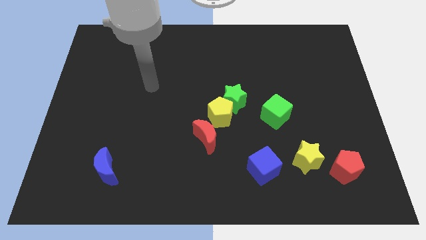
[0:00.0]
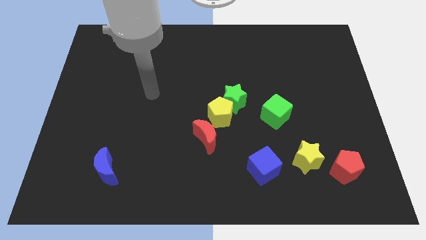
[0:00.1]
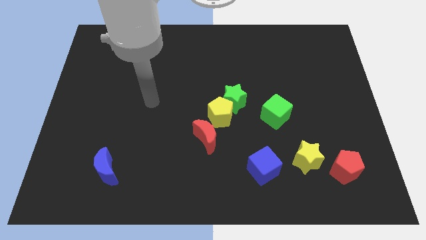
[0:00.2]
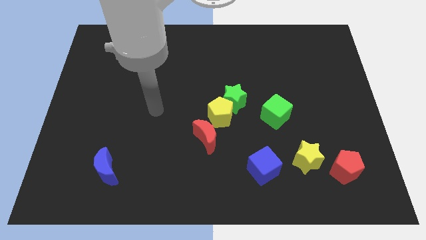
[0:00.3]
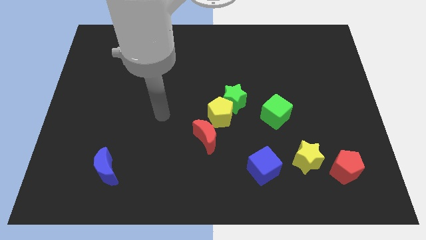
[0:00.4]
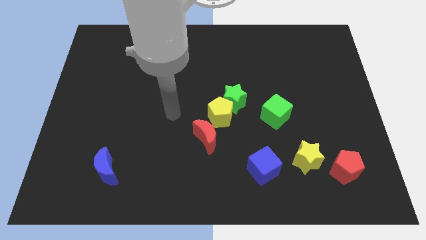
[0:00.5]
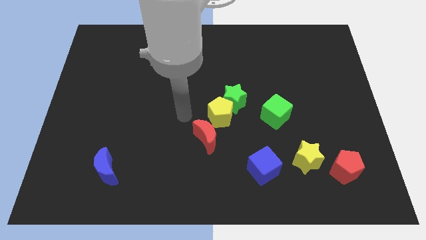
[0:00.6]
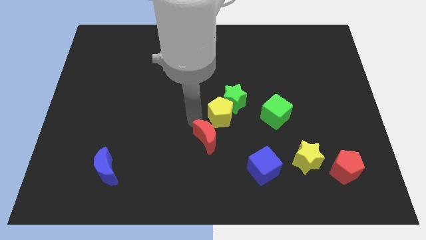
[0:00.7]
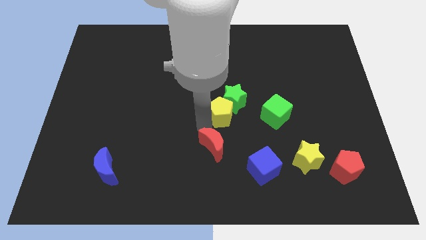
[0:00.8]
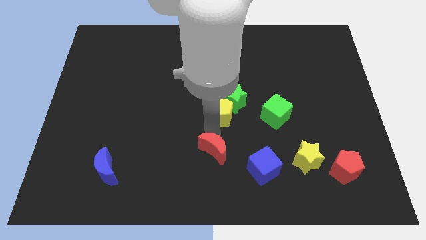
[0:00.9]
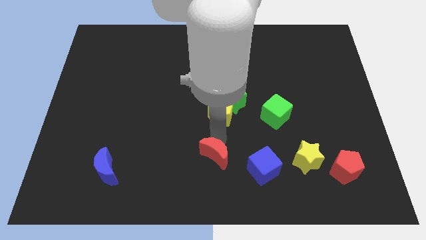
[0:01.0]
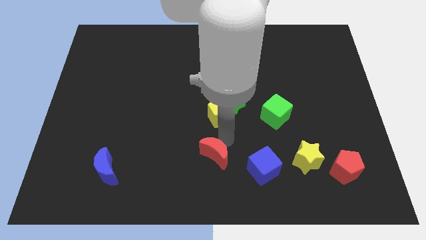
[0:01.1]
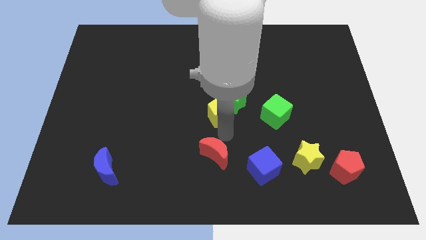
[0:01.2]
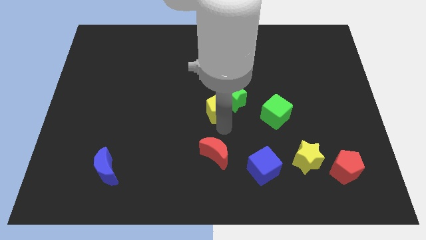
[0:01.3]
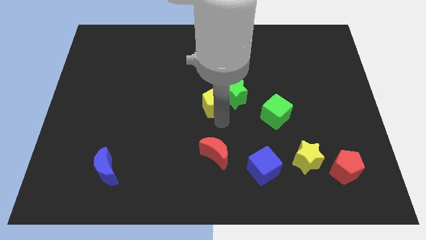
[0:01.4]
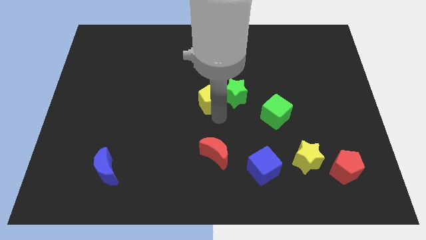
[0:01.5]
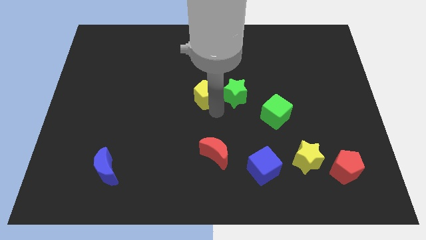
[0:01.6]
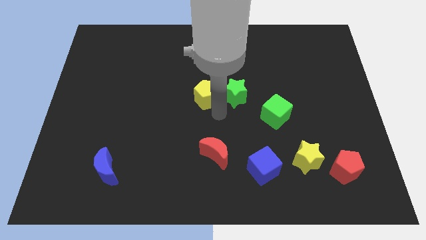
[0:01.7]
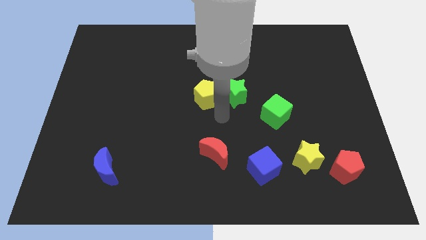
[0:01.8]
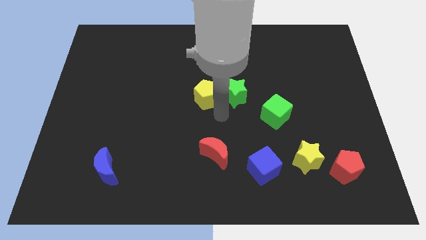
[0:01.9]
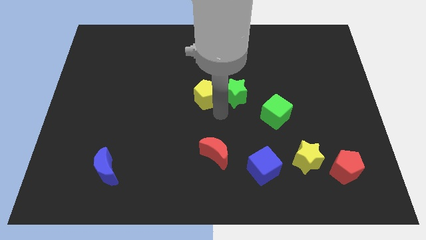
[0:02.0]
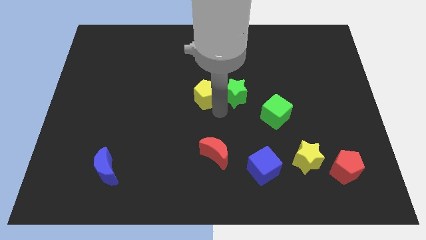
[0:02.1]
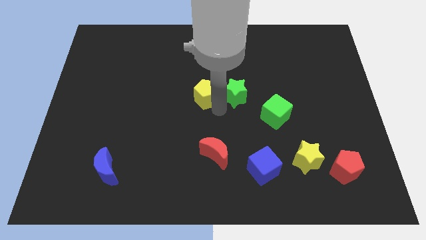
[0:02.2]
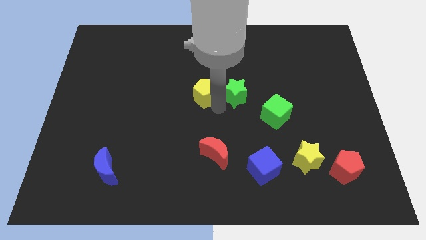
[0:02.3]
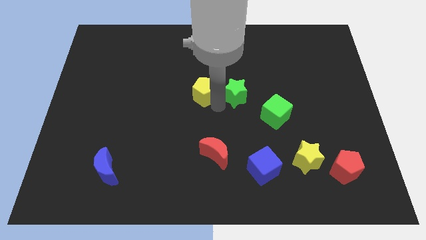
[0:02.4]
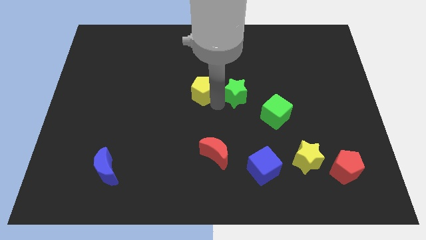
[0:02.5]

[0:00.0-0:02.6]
pull the yellow pentagon apart from the green star and red moon

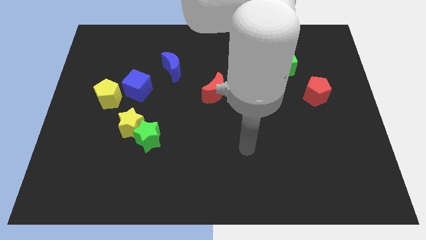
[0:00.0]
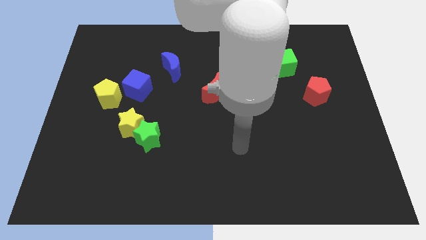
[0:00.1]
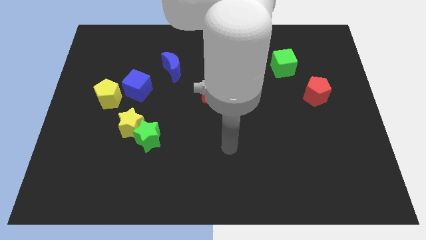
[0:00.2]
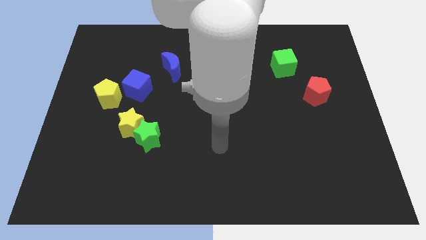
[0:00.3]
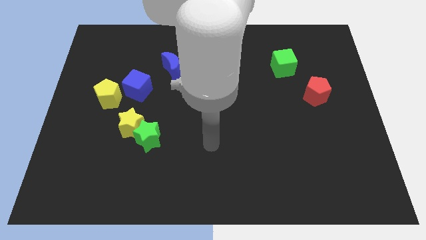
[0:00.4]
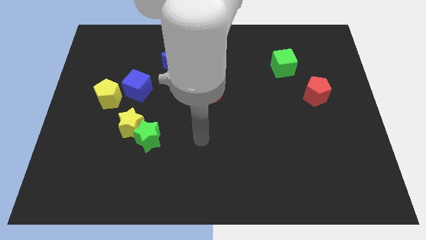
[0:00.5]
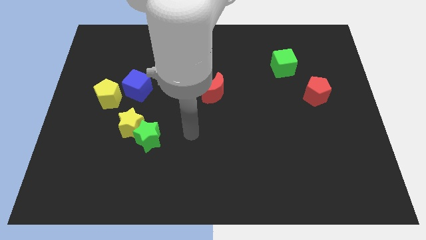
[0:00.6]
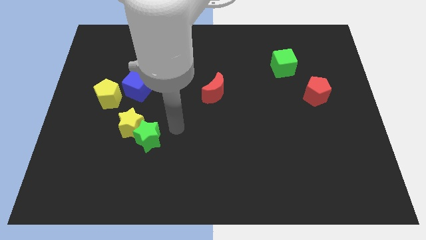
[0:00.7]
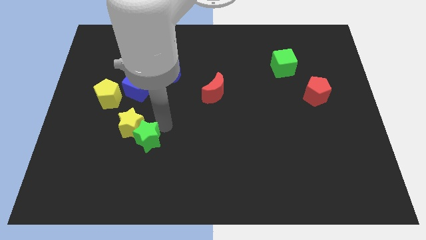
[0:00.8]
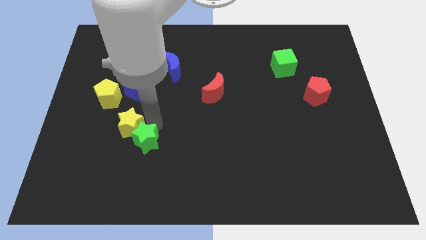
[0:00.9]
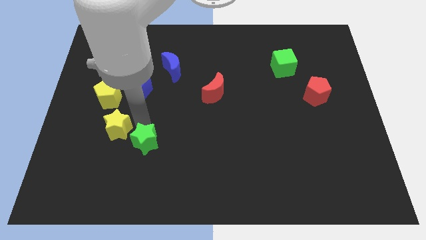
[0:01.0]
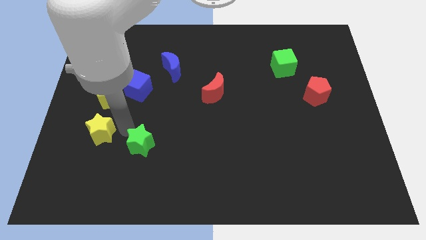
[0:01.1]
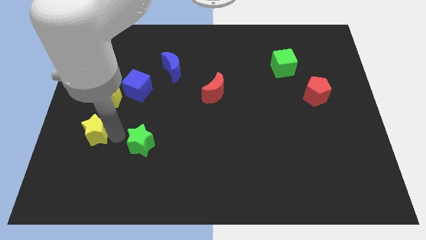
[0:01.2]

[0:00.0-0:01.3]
separate the green star from the yellow star

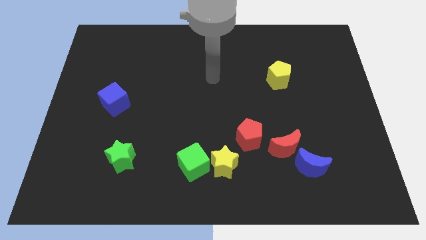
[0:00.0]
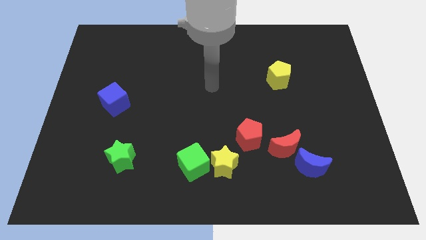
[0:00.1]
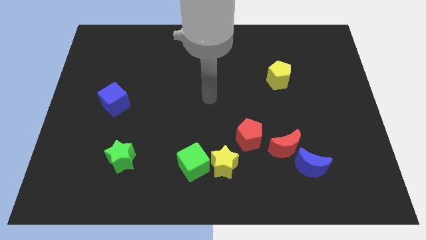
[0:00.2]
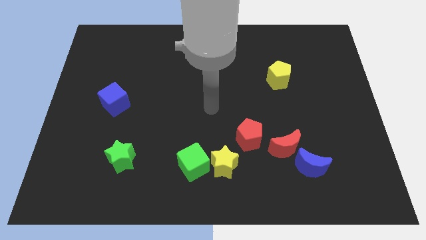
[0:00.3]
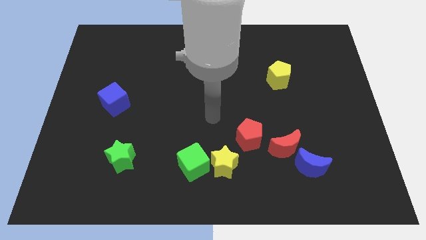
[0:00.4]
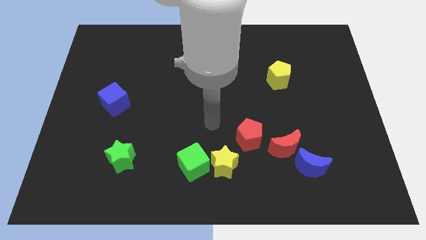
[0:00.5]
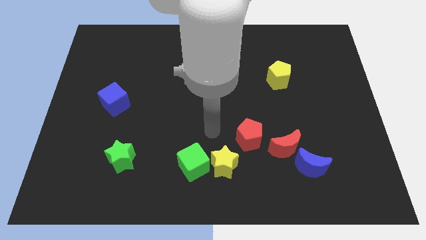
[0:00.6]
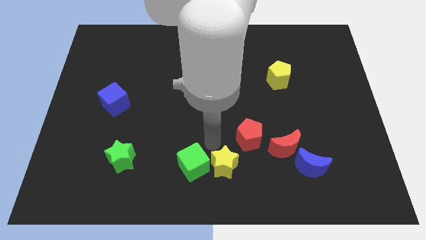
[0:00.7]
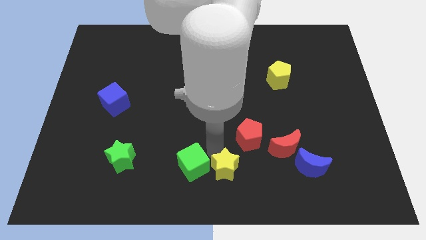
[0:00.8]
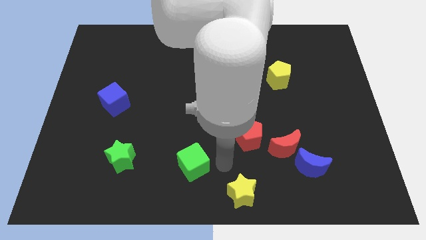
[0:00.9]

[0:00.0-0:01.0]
separate the green cube from the yellow star

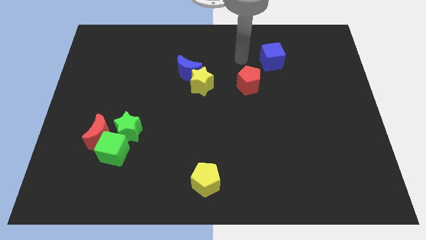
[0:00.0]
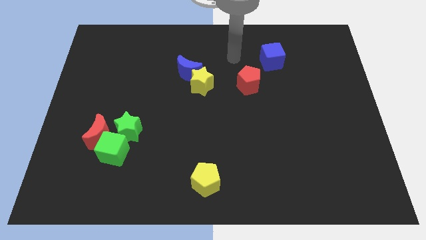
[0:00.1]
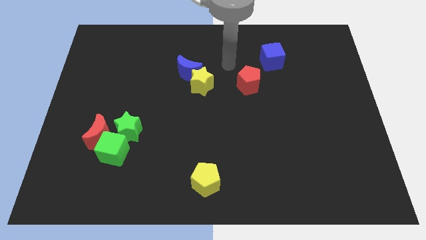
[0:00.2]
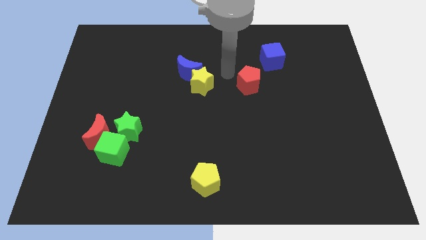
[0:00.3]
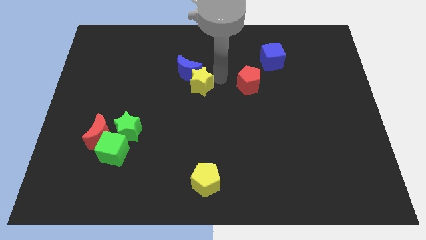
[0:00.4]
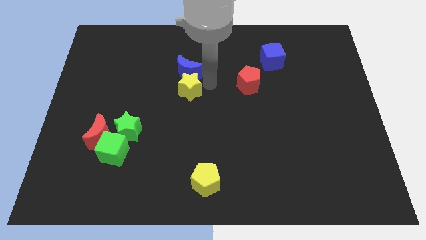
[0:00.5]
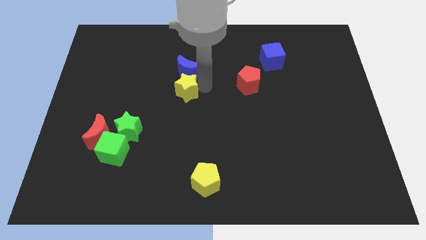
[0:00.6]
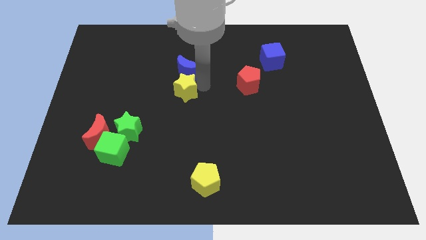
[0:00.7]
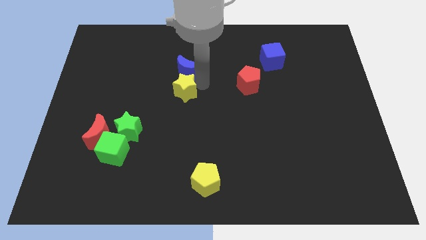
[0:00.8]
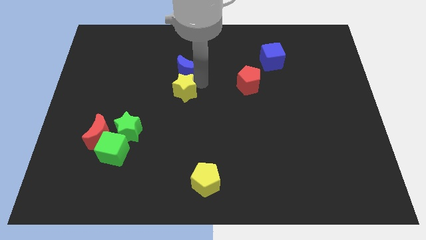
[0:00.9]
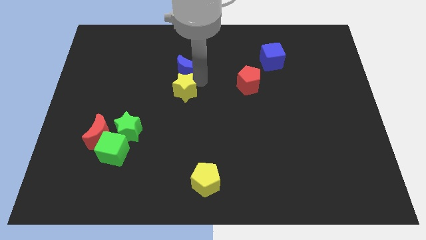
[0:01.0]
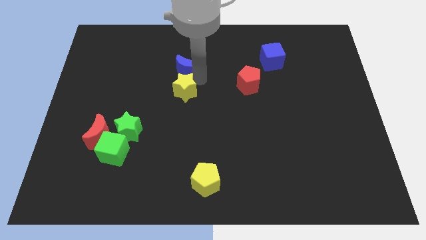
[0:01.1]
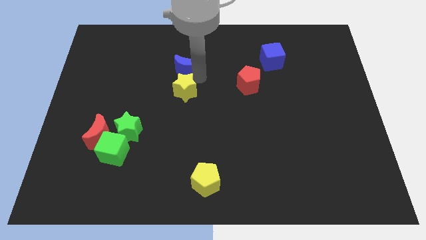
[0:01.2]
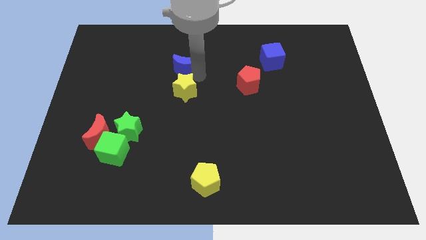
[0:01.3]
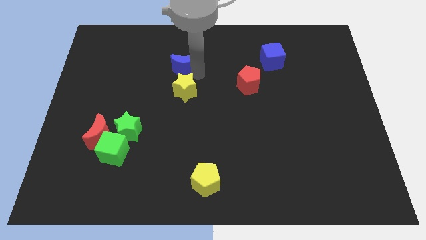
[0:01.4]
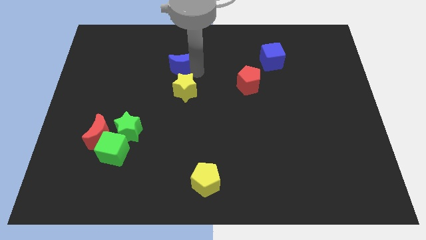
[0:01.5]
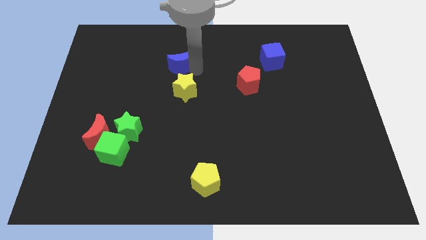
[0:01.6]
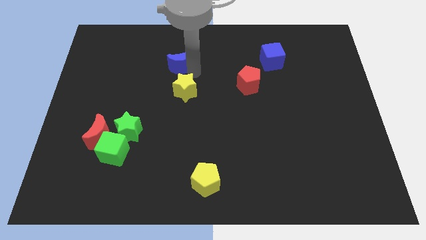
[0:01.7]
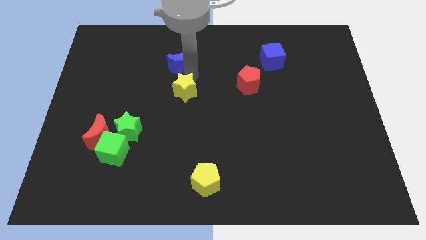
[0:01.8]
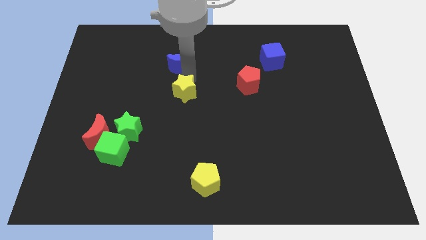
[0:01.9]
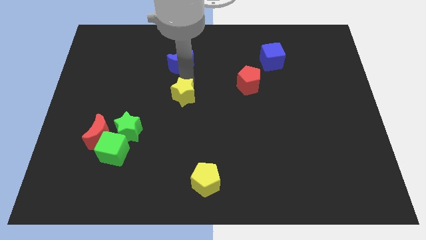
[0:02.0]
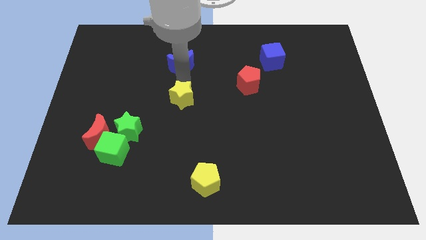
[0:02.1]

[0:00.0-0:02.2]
separate the blue moon from the yellow star

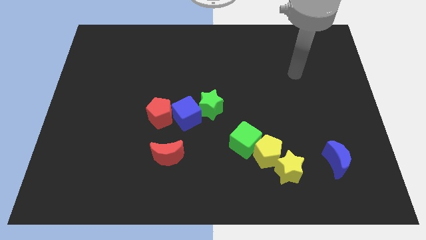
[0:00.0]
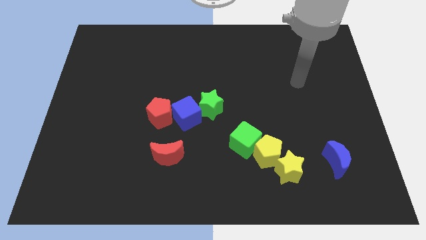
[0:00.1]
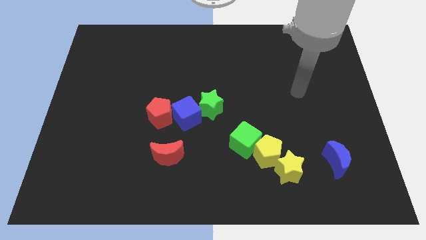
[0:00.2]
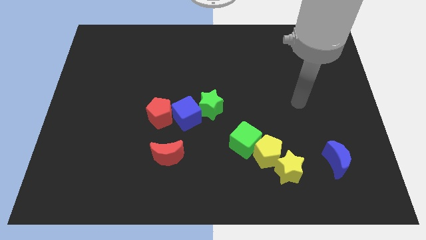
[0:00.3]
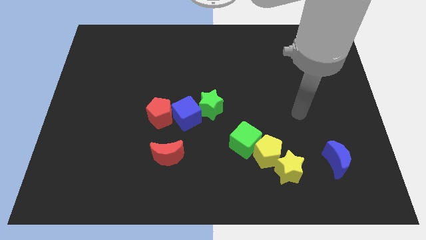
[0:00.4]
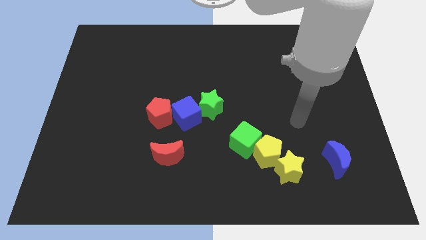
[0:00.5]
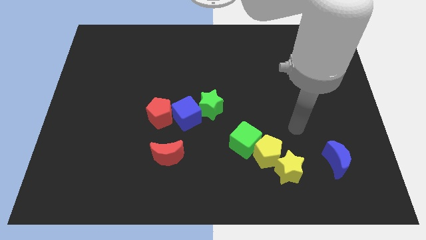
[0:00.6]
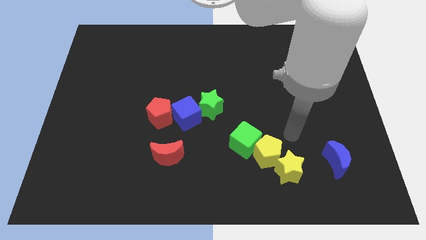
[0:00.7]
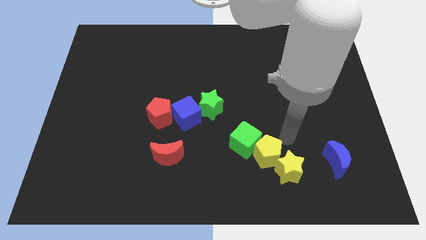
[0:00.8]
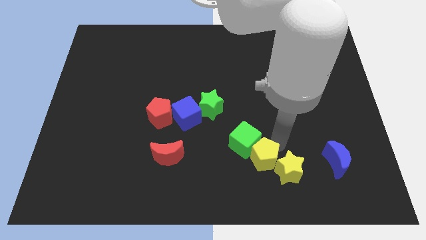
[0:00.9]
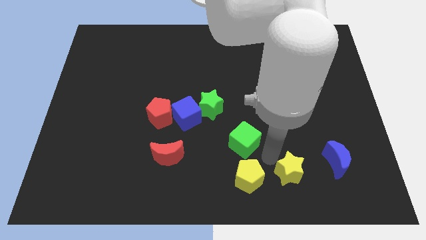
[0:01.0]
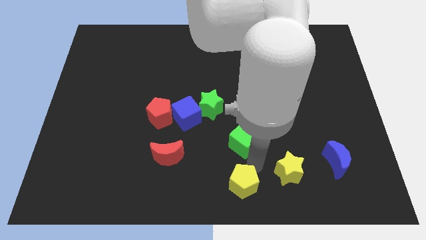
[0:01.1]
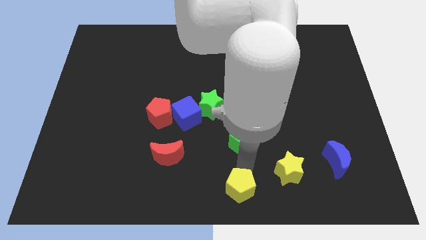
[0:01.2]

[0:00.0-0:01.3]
pull the green cube apart from the yellow pentagon

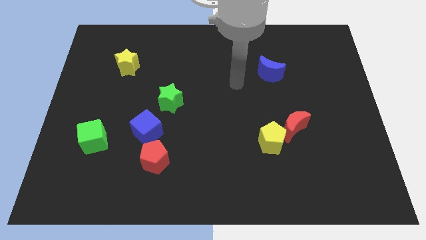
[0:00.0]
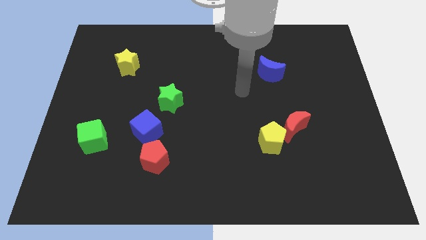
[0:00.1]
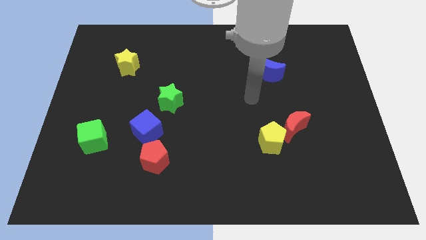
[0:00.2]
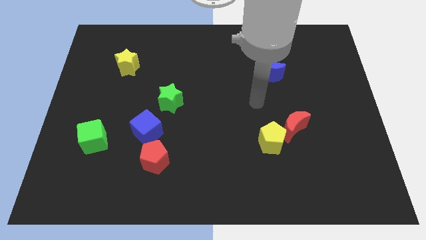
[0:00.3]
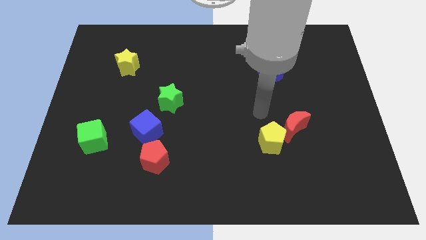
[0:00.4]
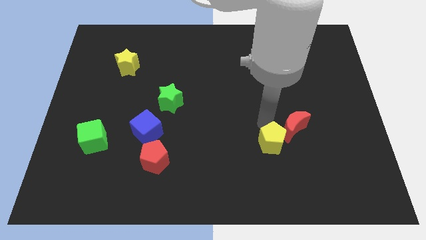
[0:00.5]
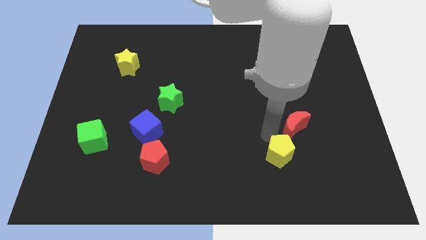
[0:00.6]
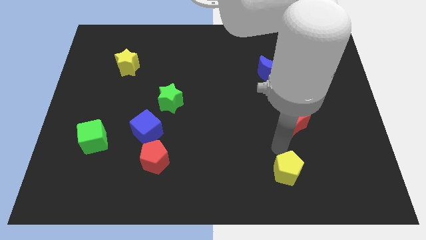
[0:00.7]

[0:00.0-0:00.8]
pull the red moon apart from the yellow pentagon
